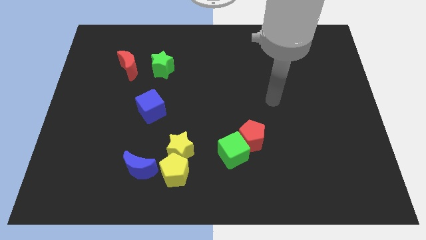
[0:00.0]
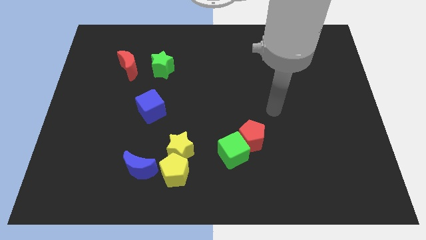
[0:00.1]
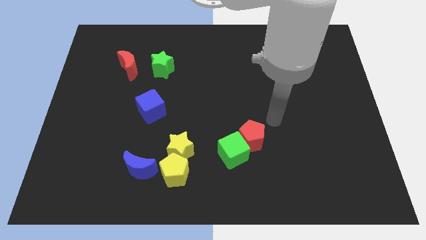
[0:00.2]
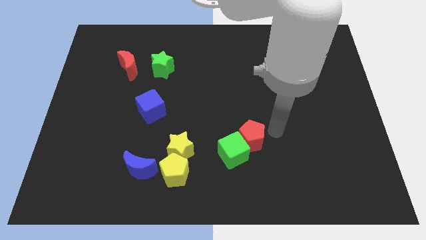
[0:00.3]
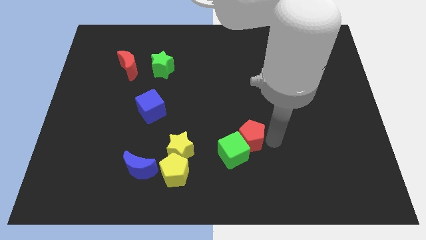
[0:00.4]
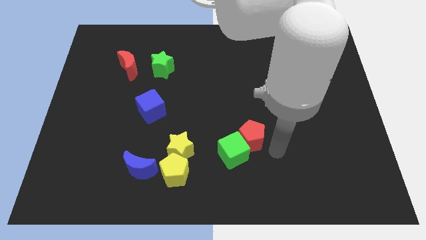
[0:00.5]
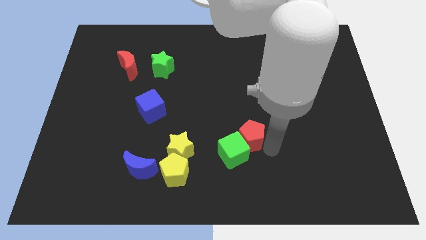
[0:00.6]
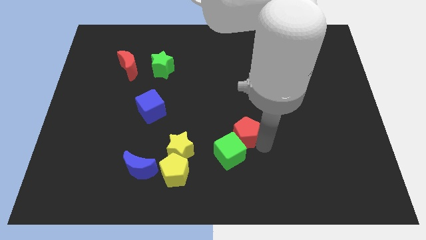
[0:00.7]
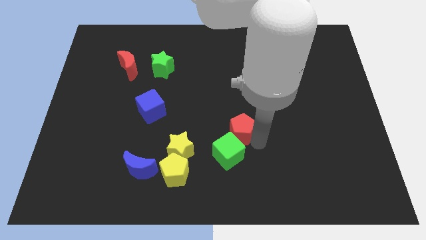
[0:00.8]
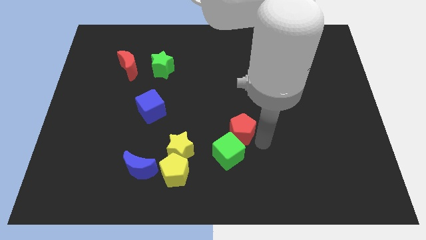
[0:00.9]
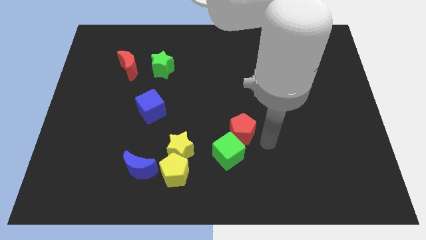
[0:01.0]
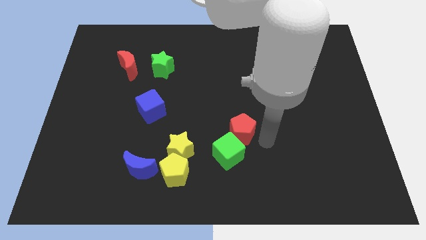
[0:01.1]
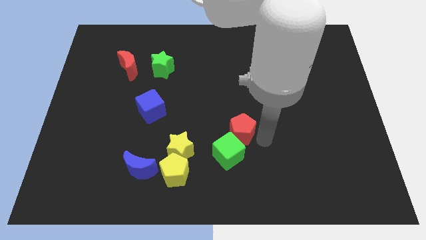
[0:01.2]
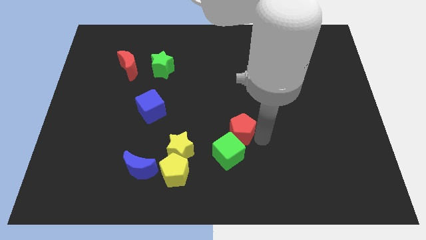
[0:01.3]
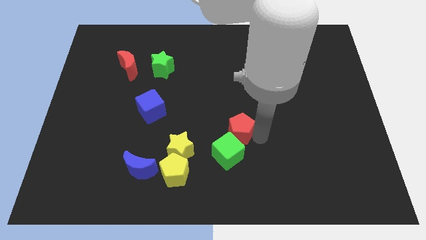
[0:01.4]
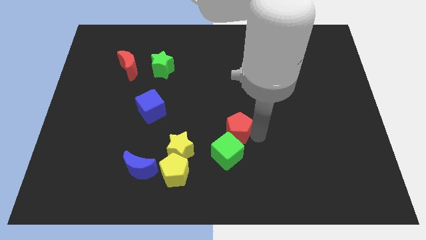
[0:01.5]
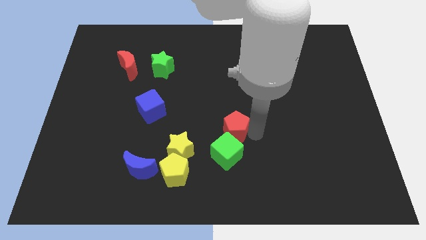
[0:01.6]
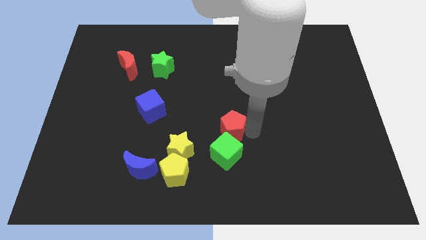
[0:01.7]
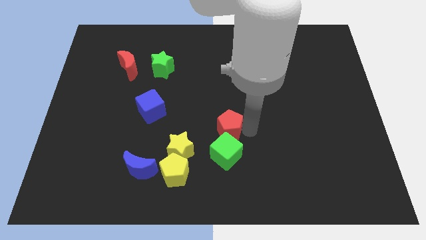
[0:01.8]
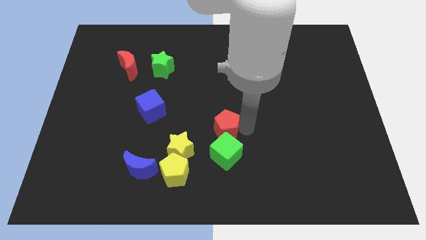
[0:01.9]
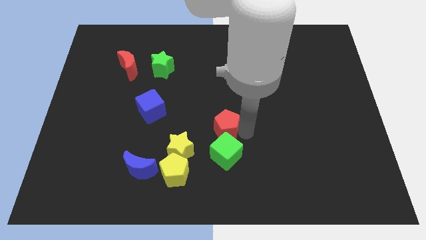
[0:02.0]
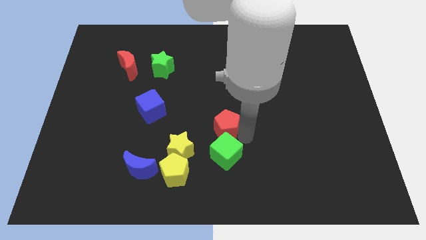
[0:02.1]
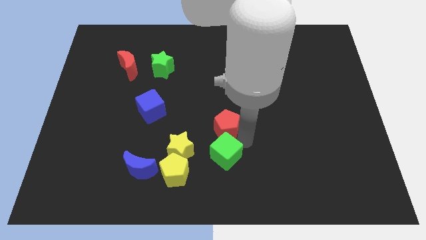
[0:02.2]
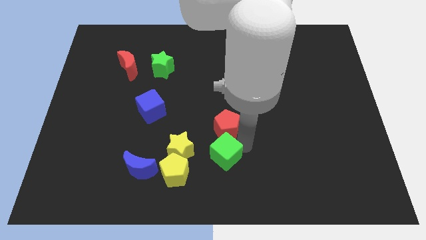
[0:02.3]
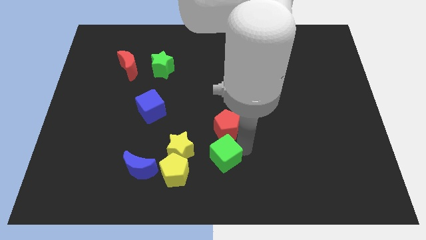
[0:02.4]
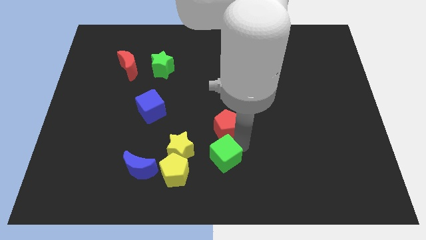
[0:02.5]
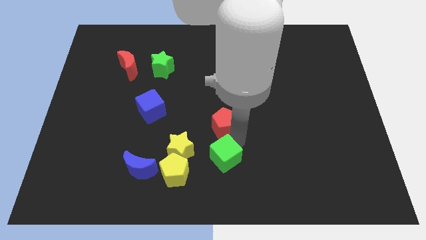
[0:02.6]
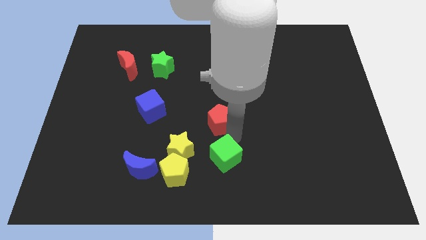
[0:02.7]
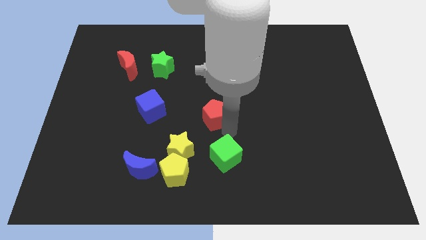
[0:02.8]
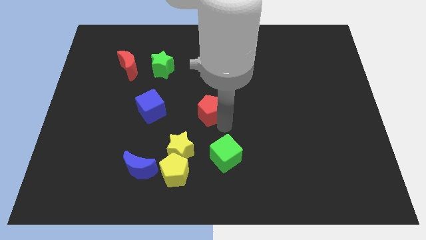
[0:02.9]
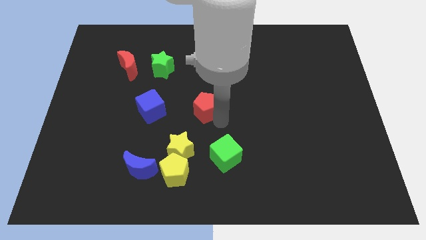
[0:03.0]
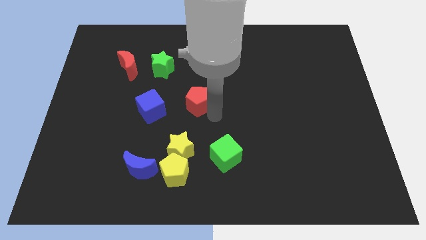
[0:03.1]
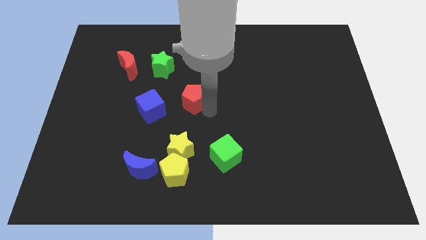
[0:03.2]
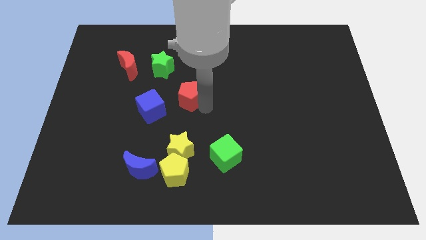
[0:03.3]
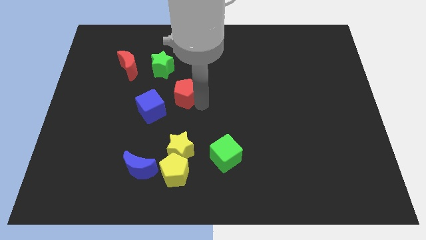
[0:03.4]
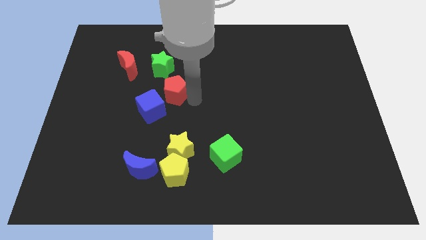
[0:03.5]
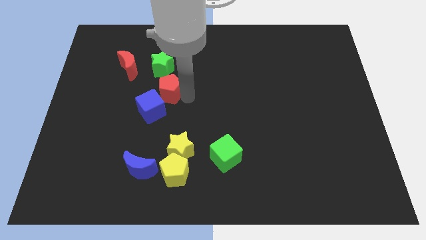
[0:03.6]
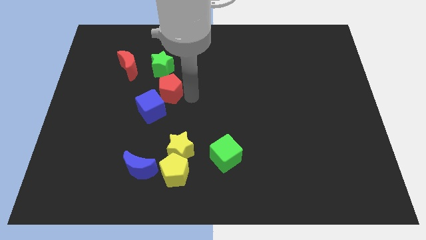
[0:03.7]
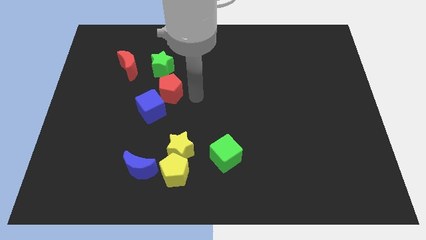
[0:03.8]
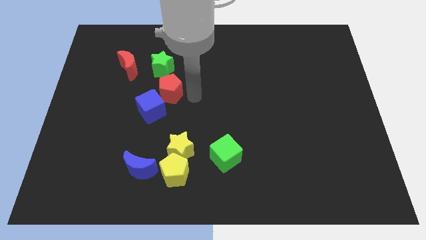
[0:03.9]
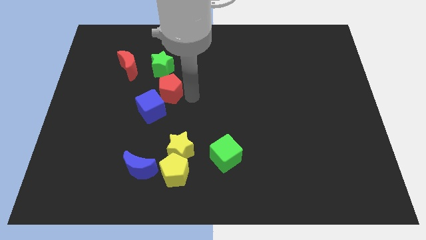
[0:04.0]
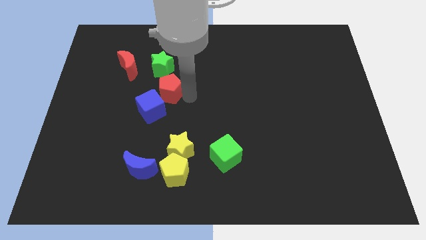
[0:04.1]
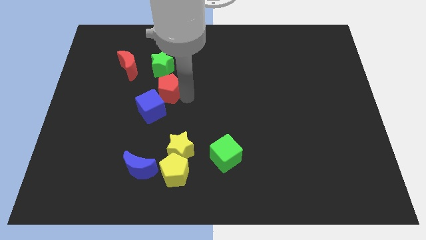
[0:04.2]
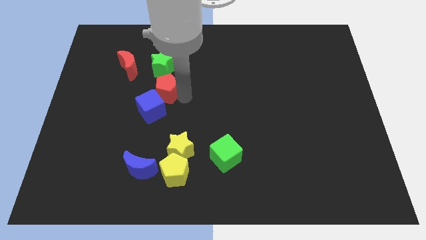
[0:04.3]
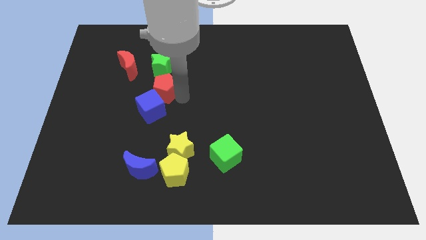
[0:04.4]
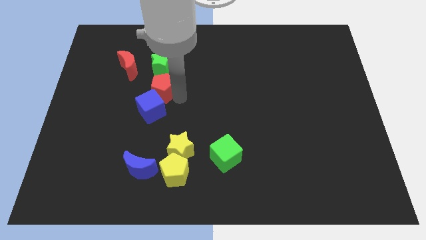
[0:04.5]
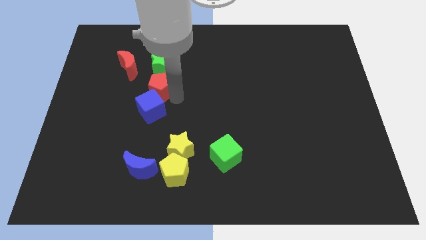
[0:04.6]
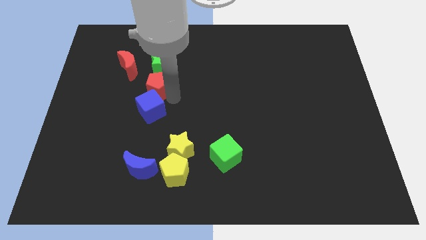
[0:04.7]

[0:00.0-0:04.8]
slide the red pentagon to the bottom left side of the green star

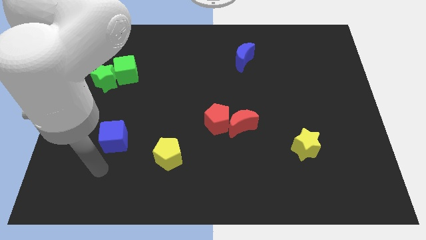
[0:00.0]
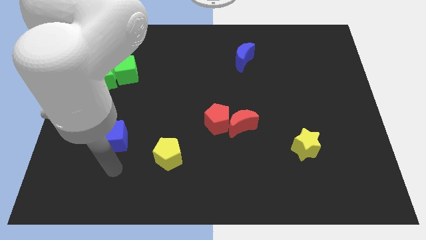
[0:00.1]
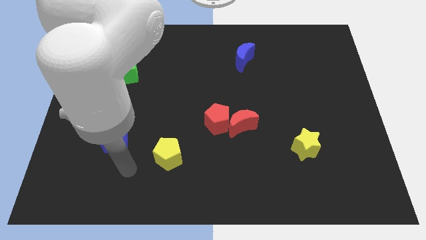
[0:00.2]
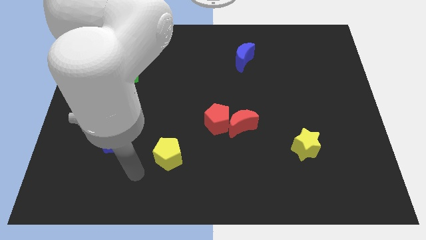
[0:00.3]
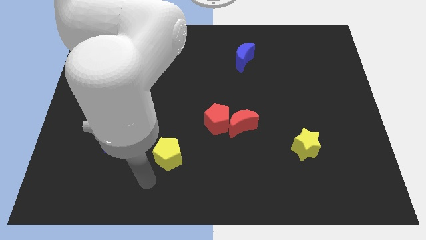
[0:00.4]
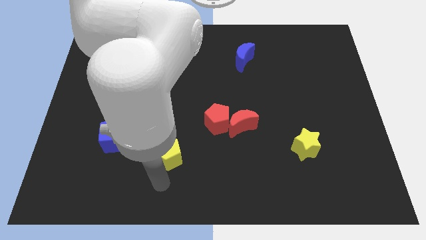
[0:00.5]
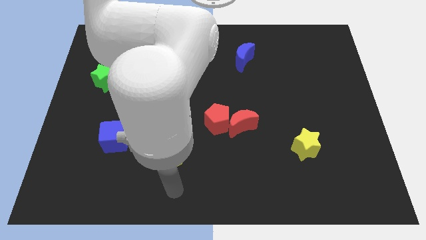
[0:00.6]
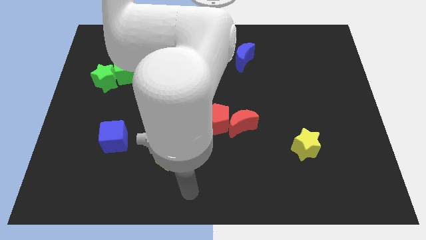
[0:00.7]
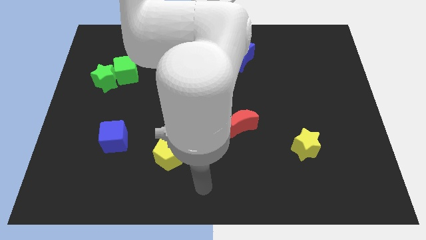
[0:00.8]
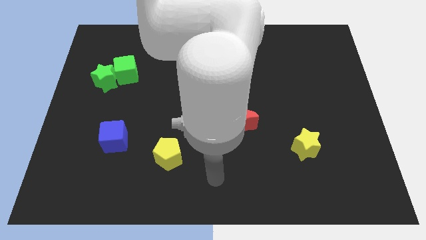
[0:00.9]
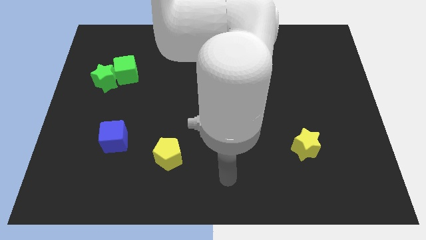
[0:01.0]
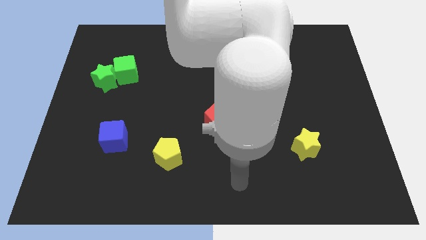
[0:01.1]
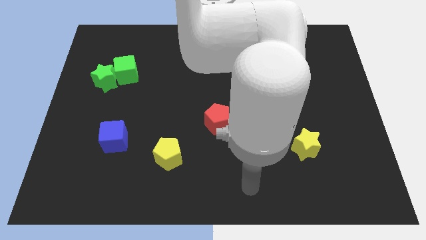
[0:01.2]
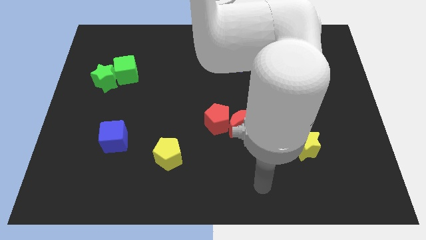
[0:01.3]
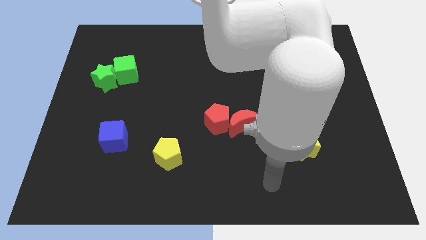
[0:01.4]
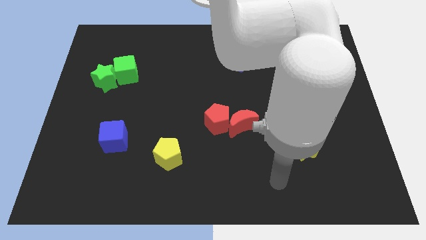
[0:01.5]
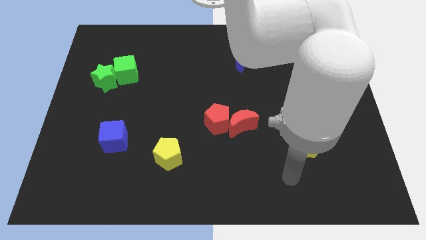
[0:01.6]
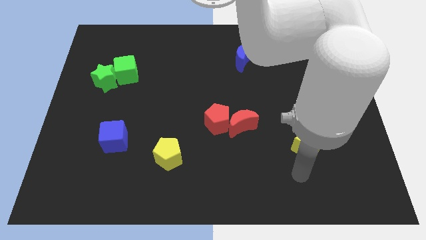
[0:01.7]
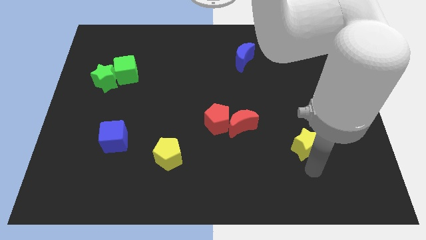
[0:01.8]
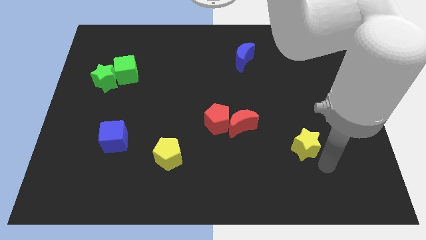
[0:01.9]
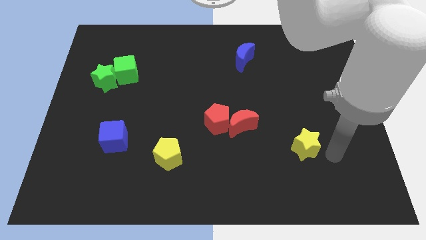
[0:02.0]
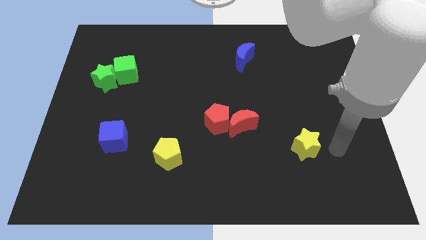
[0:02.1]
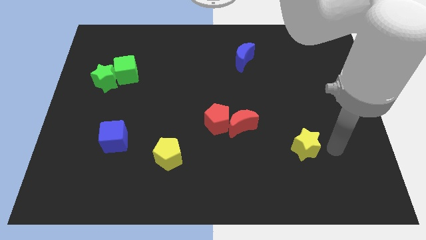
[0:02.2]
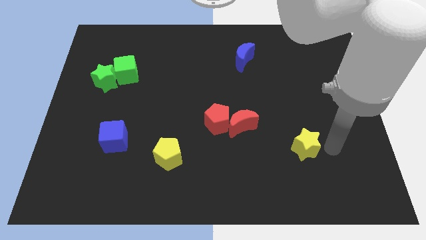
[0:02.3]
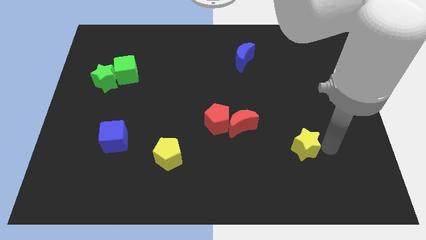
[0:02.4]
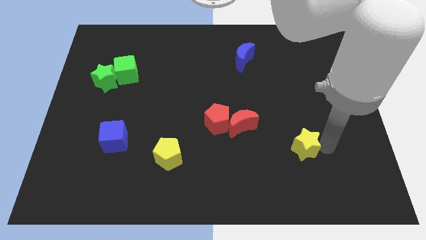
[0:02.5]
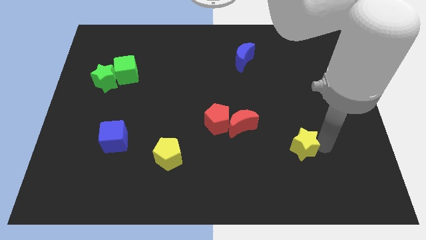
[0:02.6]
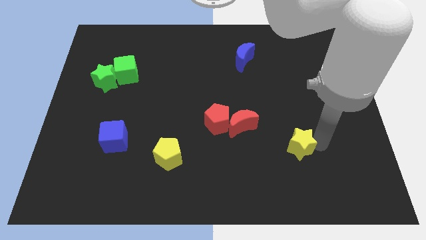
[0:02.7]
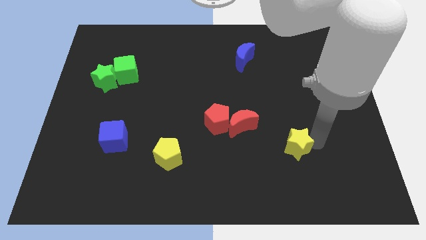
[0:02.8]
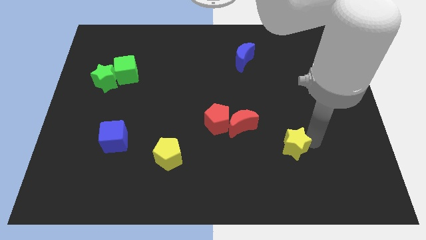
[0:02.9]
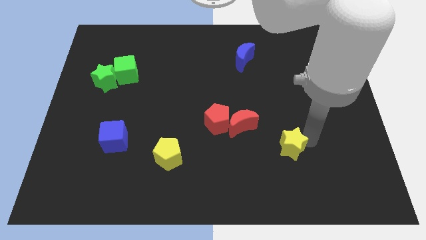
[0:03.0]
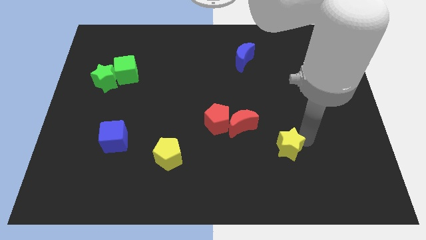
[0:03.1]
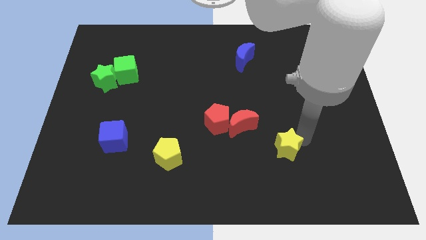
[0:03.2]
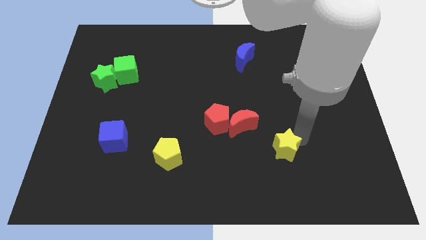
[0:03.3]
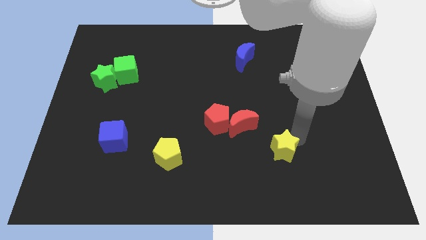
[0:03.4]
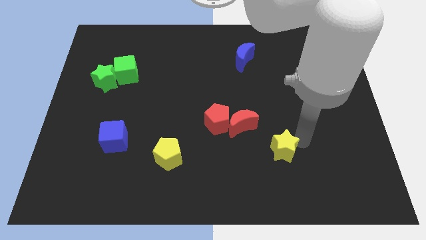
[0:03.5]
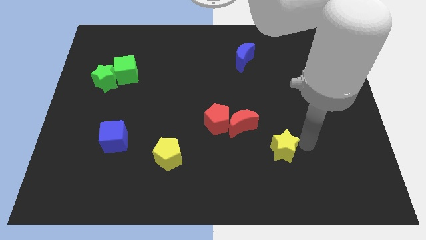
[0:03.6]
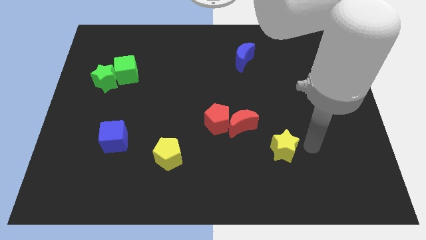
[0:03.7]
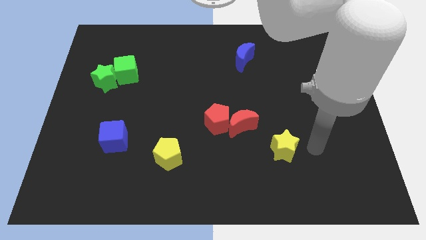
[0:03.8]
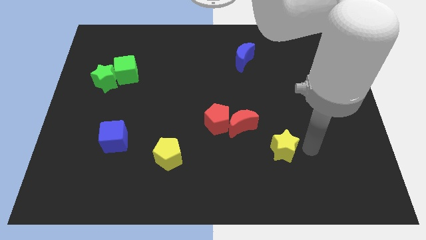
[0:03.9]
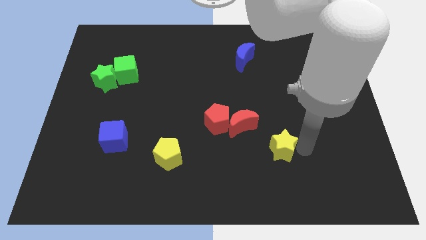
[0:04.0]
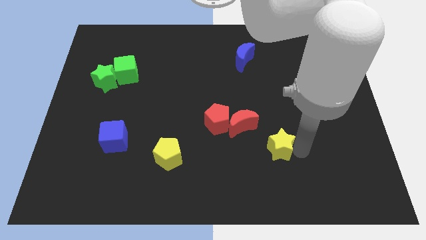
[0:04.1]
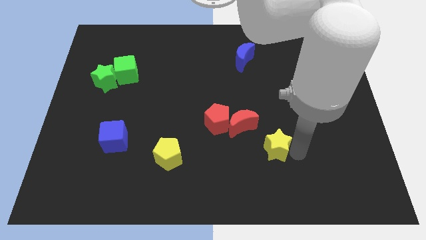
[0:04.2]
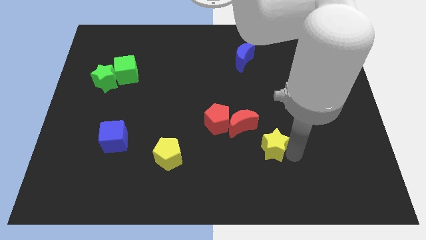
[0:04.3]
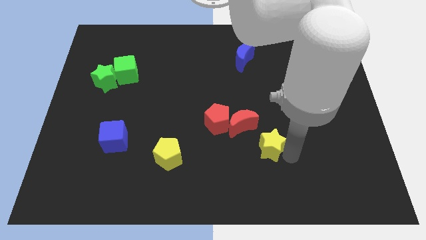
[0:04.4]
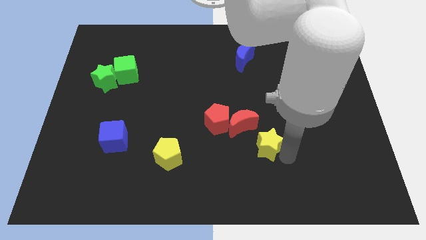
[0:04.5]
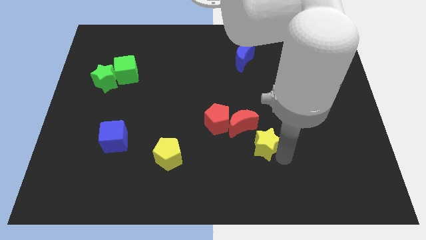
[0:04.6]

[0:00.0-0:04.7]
push the yellow star to the bottom right side of the red pentagon
